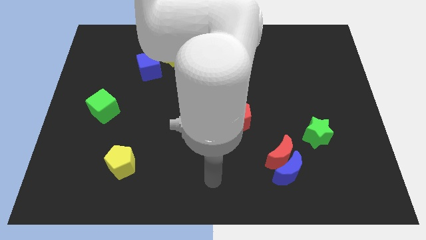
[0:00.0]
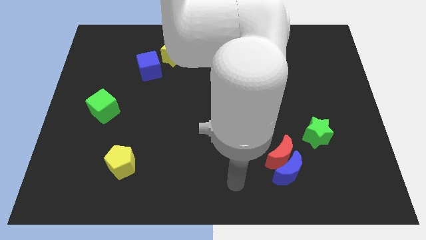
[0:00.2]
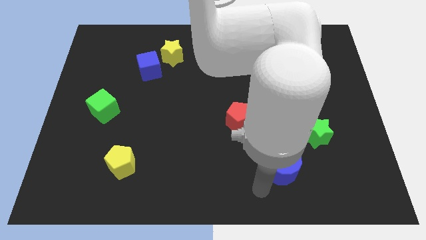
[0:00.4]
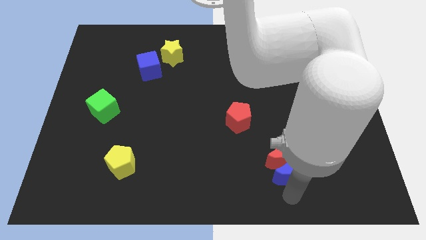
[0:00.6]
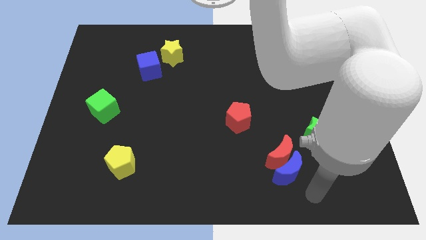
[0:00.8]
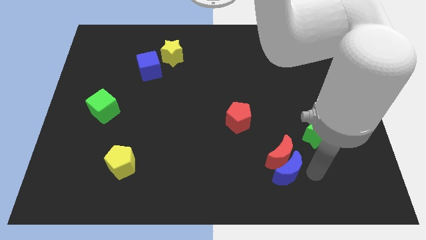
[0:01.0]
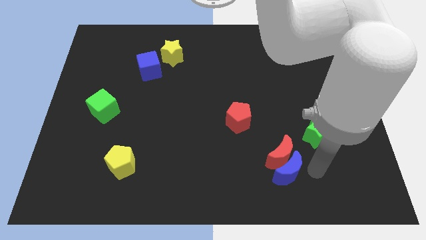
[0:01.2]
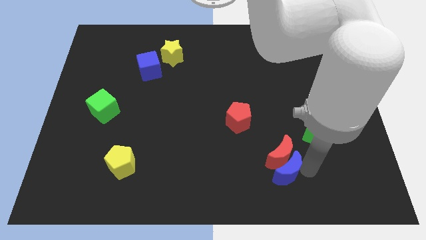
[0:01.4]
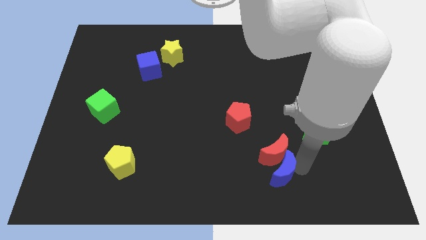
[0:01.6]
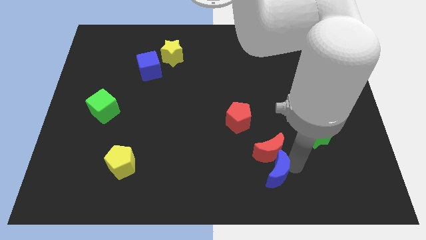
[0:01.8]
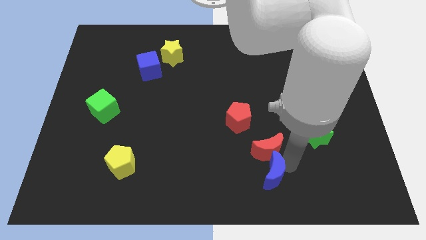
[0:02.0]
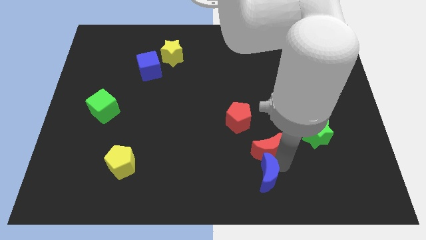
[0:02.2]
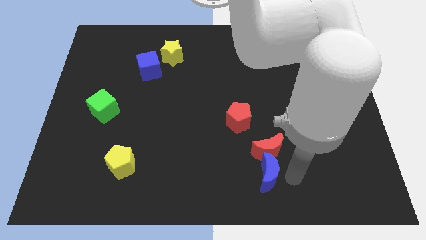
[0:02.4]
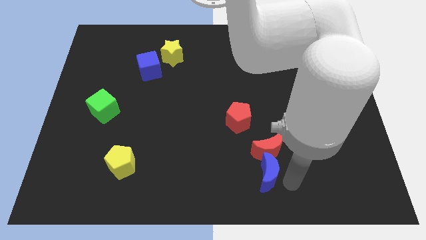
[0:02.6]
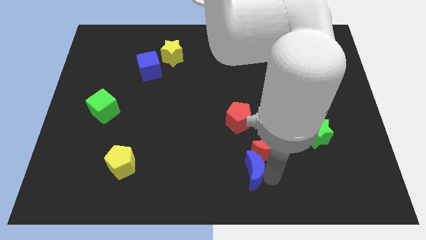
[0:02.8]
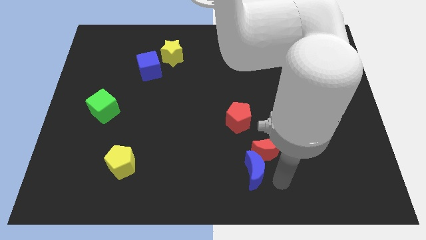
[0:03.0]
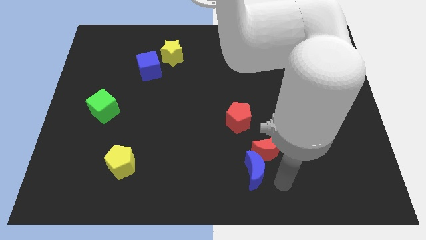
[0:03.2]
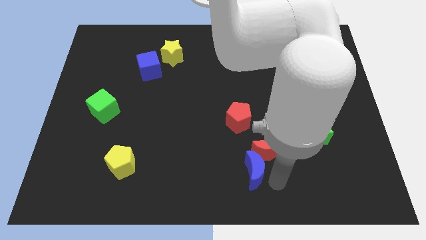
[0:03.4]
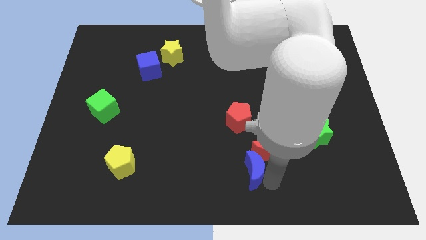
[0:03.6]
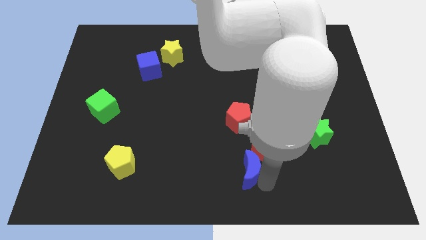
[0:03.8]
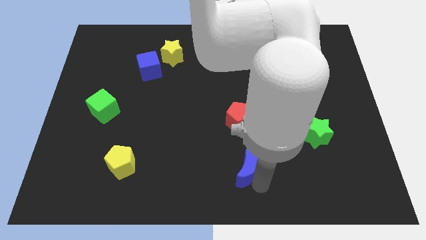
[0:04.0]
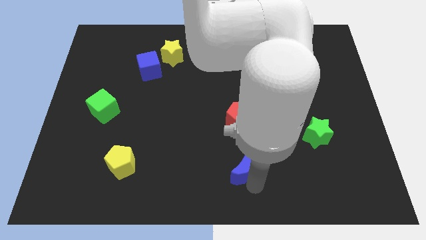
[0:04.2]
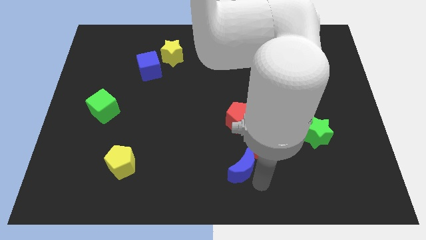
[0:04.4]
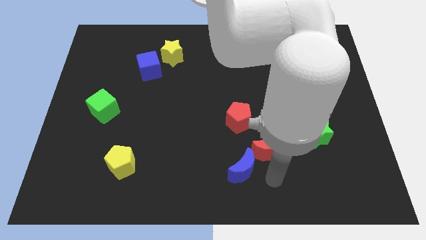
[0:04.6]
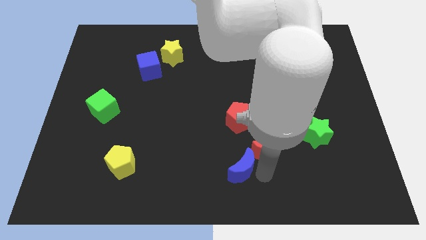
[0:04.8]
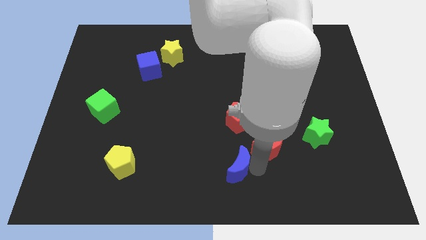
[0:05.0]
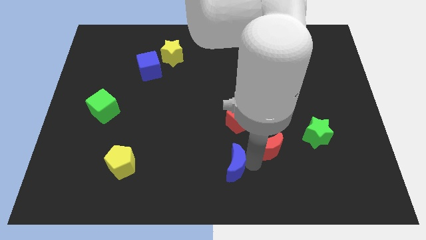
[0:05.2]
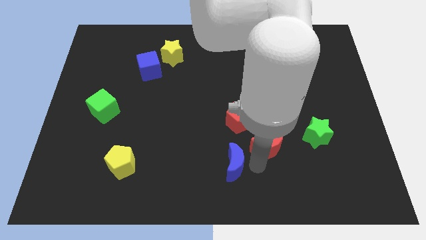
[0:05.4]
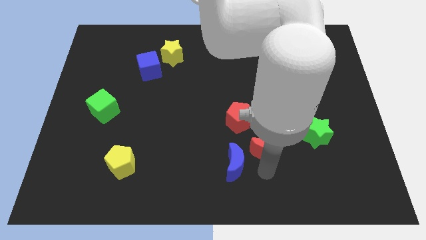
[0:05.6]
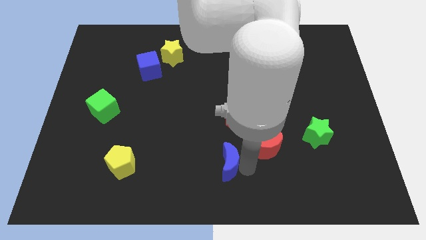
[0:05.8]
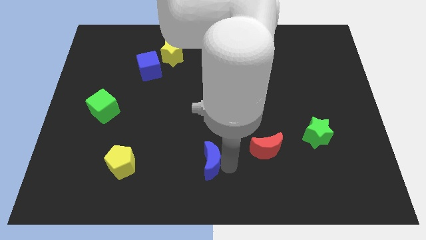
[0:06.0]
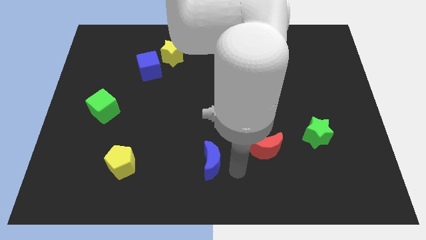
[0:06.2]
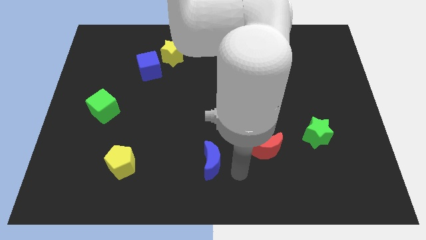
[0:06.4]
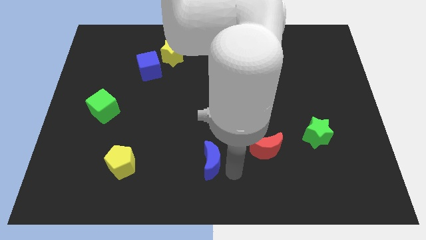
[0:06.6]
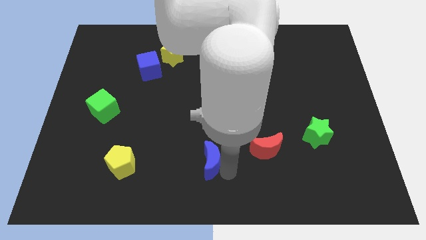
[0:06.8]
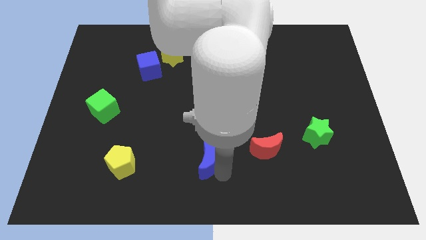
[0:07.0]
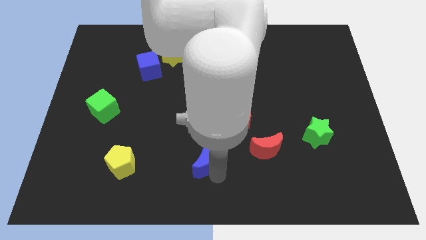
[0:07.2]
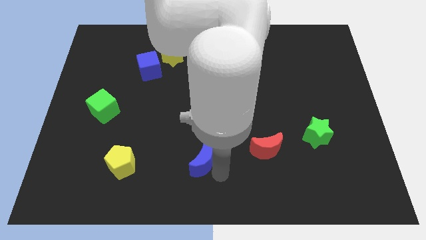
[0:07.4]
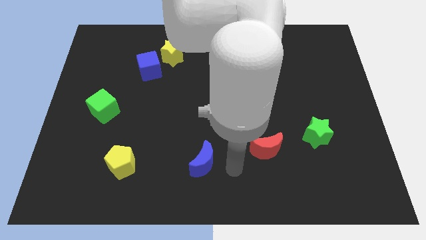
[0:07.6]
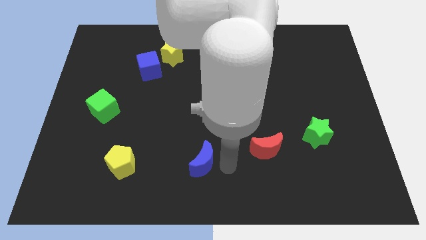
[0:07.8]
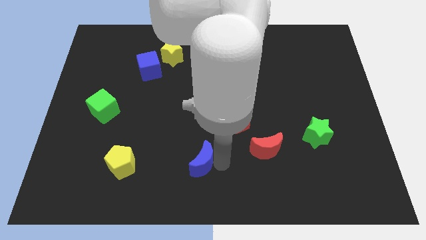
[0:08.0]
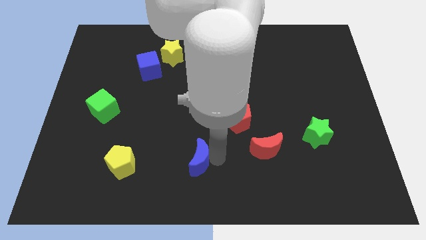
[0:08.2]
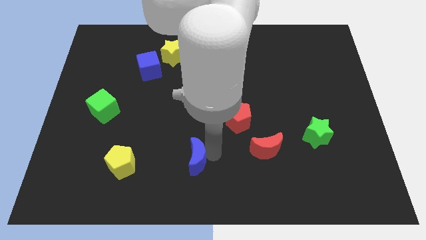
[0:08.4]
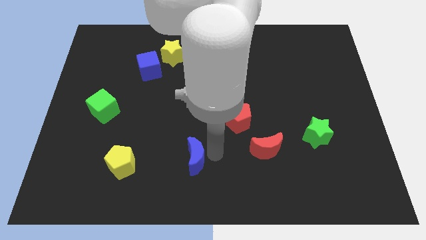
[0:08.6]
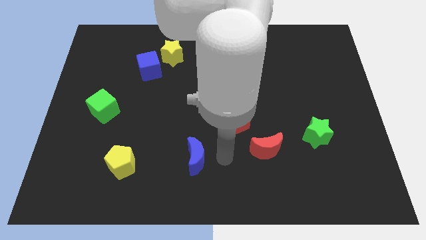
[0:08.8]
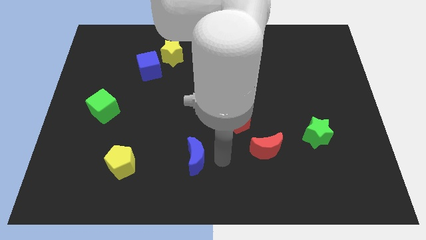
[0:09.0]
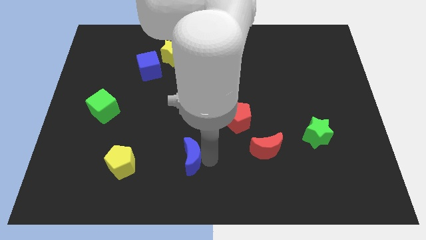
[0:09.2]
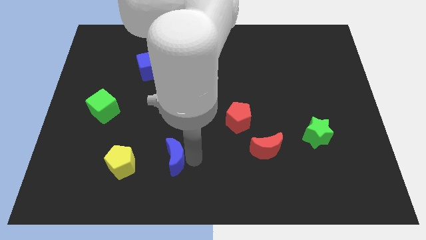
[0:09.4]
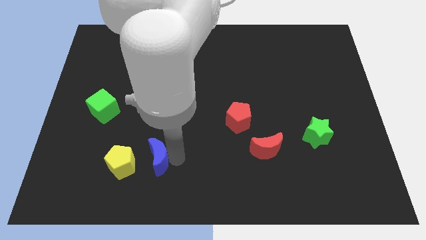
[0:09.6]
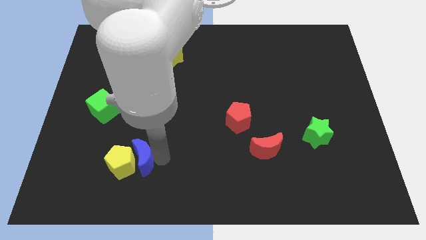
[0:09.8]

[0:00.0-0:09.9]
slide the blue moon close to the yellow pentagon

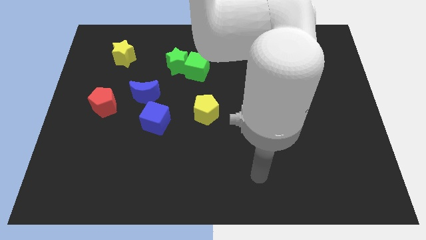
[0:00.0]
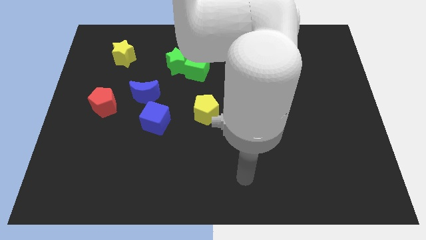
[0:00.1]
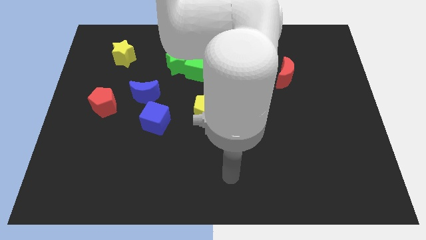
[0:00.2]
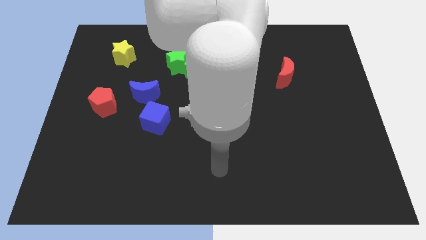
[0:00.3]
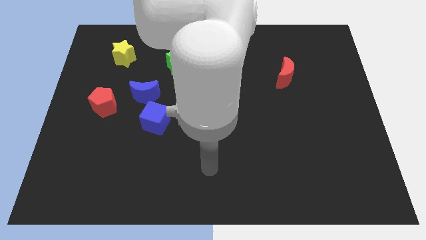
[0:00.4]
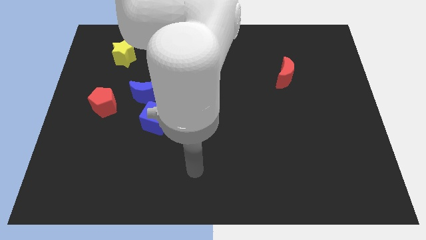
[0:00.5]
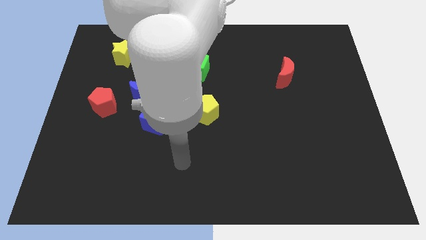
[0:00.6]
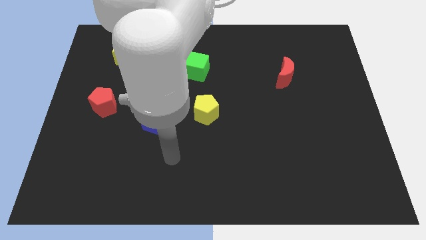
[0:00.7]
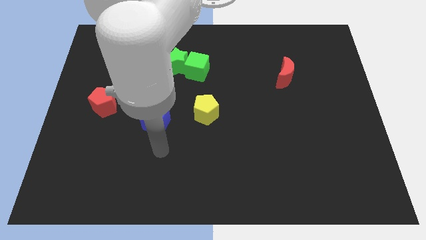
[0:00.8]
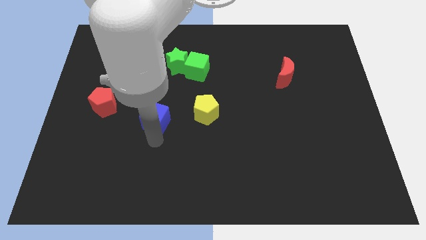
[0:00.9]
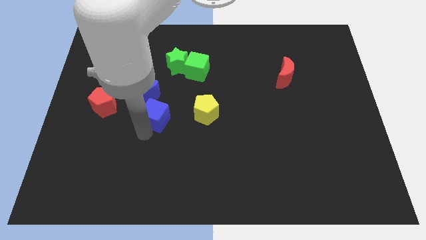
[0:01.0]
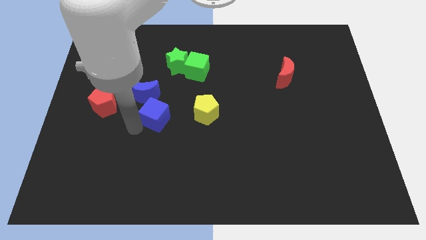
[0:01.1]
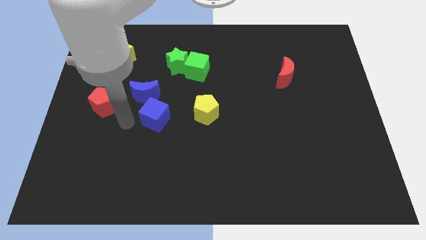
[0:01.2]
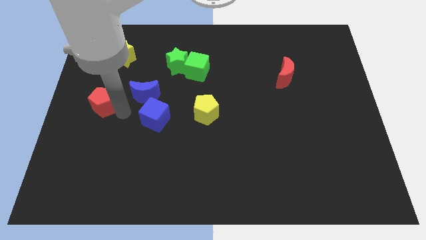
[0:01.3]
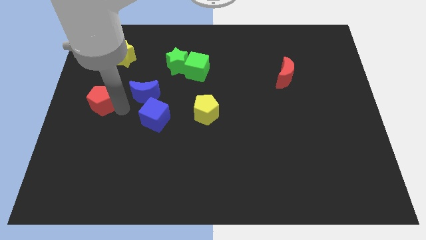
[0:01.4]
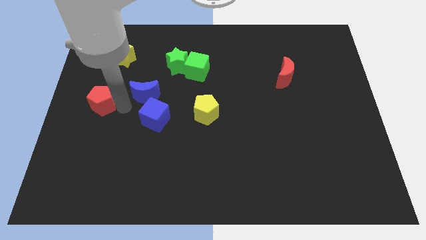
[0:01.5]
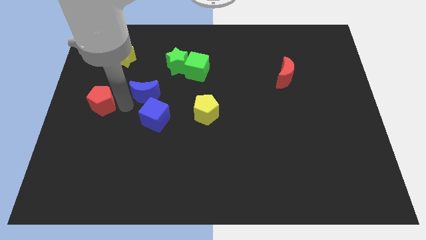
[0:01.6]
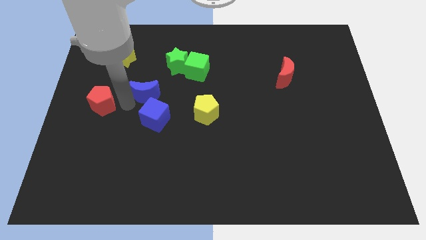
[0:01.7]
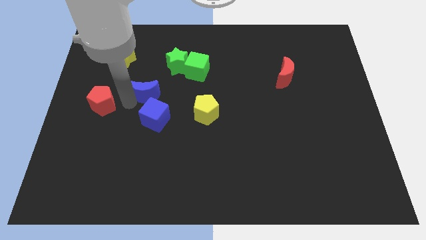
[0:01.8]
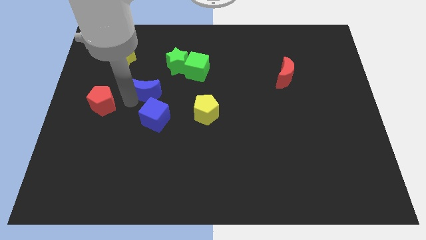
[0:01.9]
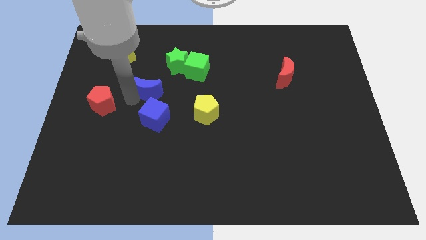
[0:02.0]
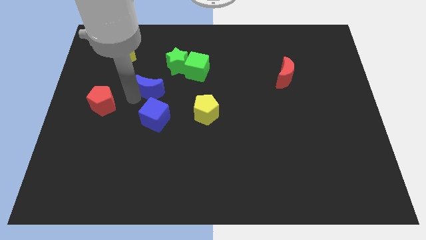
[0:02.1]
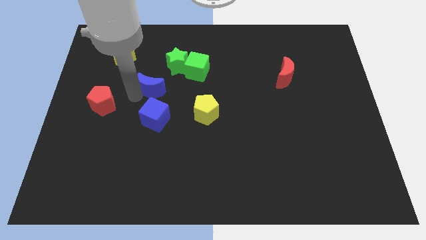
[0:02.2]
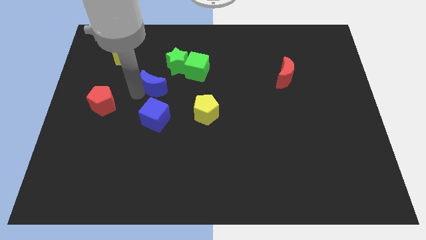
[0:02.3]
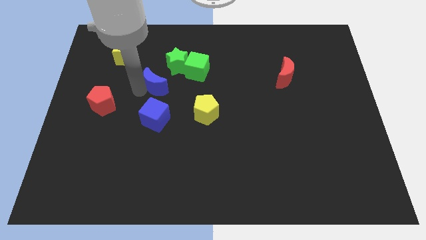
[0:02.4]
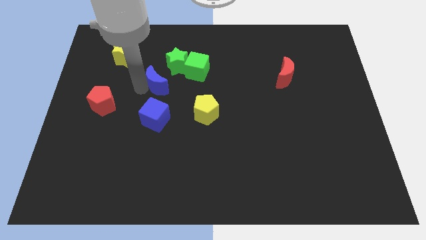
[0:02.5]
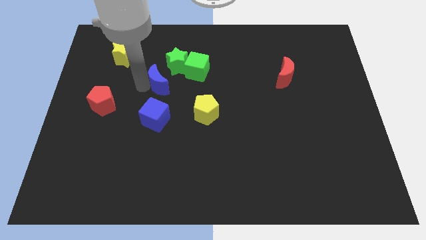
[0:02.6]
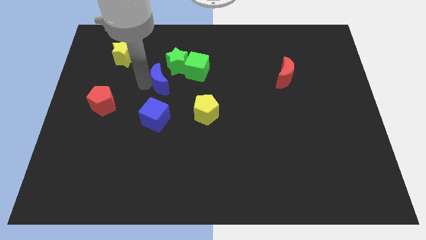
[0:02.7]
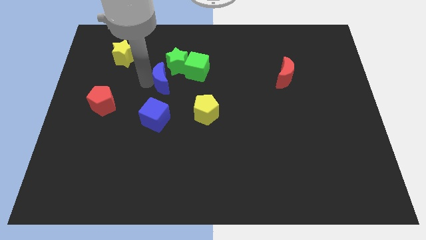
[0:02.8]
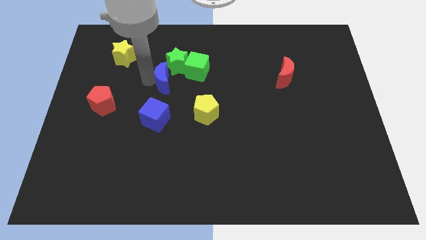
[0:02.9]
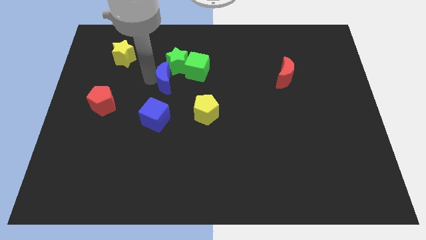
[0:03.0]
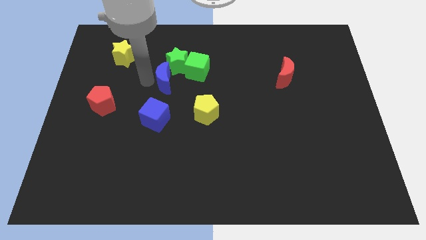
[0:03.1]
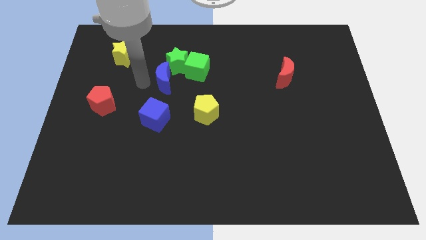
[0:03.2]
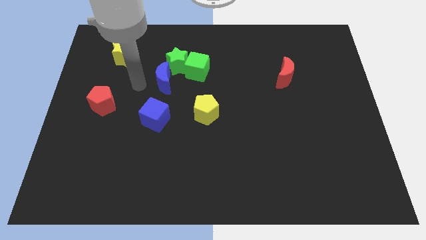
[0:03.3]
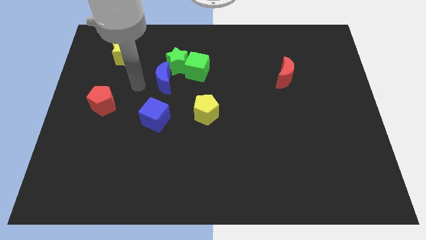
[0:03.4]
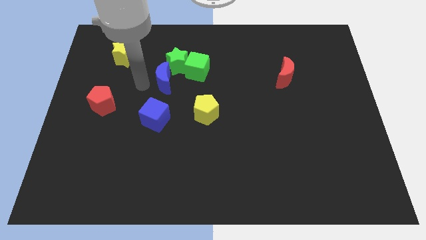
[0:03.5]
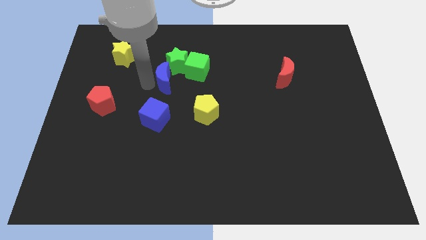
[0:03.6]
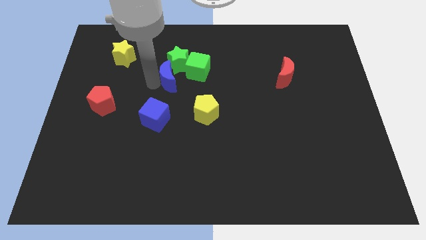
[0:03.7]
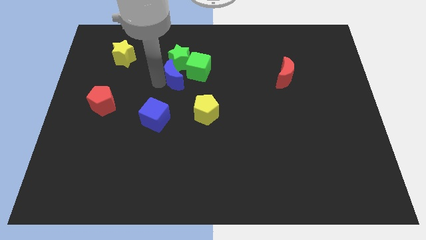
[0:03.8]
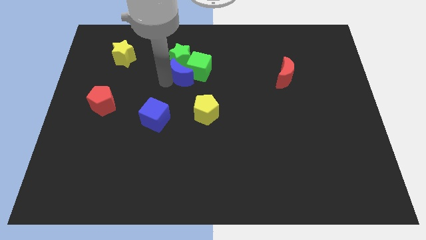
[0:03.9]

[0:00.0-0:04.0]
move the blue moon close to the green cube
